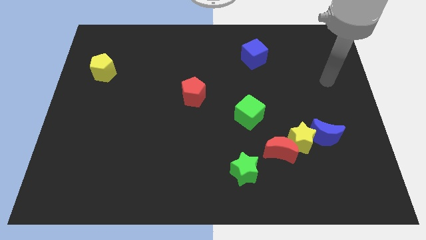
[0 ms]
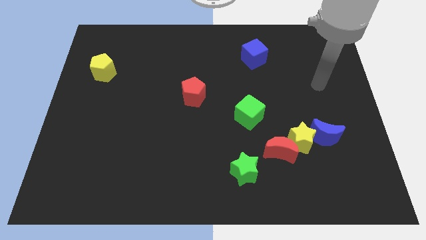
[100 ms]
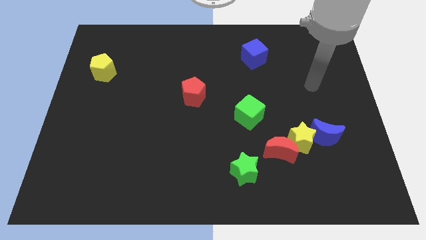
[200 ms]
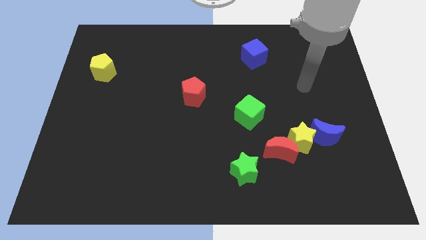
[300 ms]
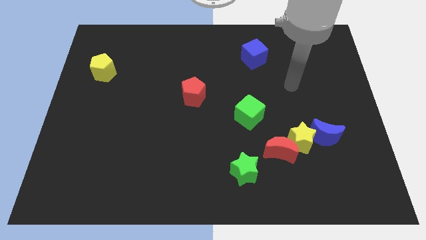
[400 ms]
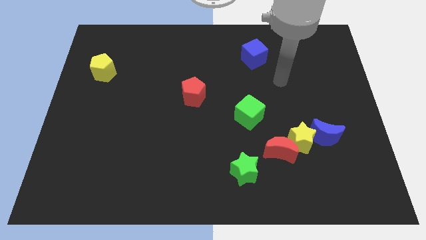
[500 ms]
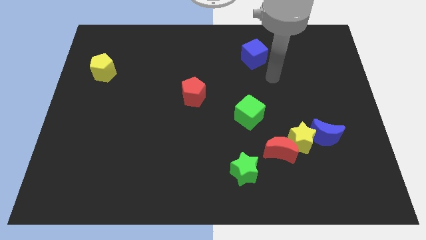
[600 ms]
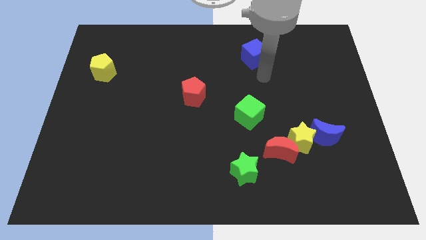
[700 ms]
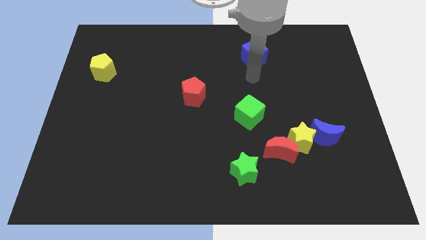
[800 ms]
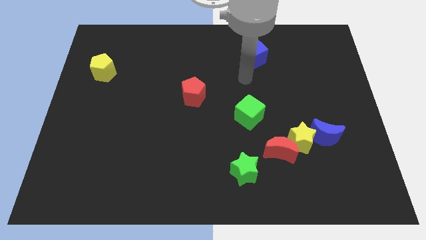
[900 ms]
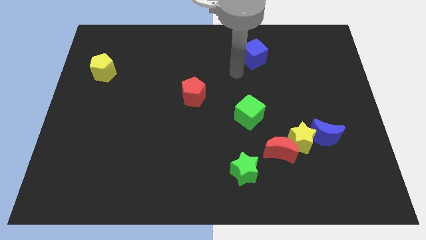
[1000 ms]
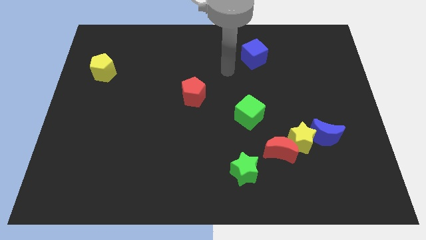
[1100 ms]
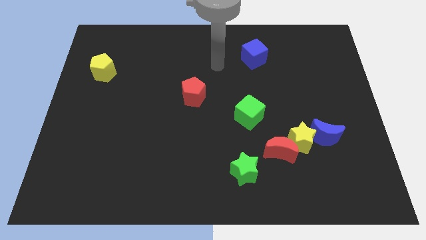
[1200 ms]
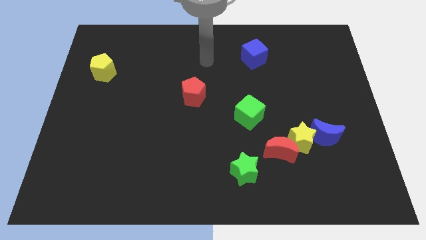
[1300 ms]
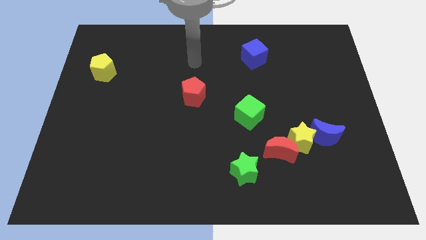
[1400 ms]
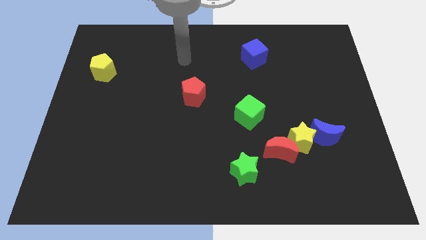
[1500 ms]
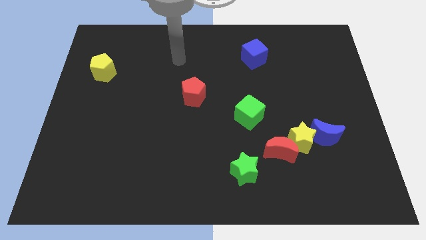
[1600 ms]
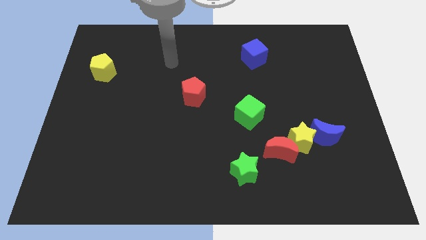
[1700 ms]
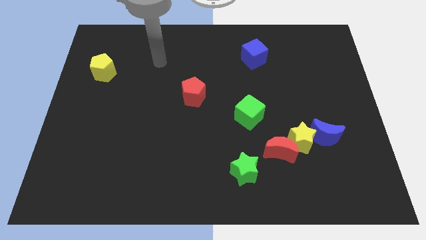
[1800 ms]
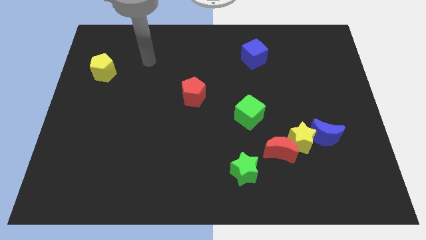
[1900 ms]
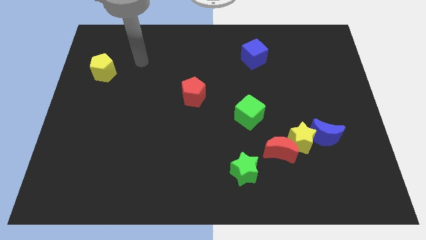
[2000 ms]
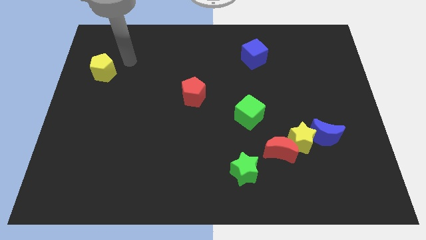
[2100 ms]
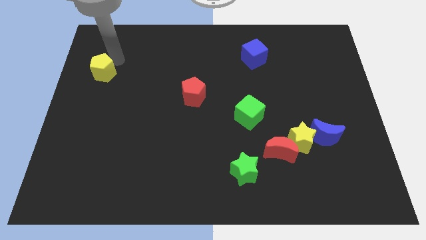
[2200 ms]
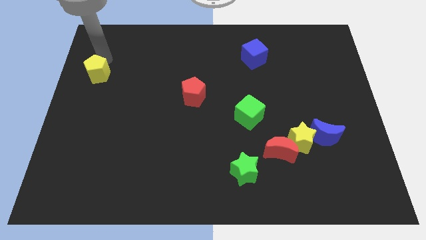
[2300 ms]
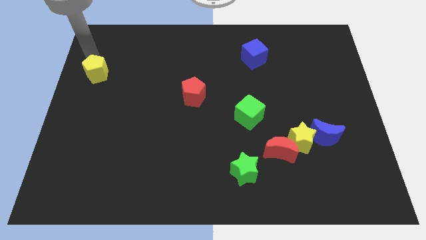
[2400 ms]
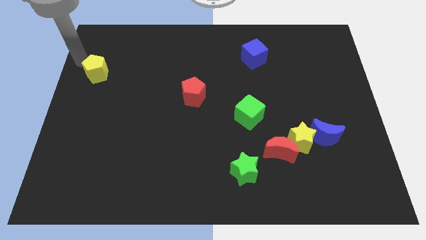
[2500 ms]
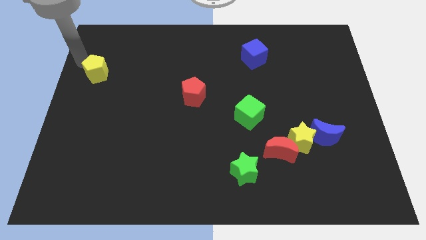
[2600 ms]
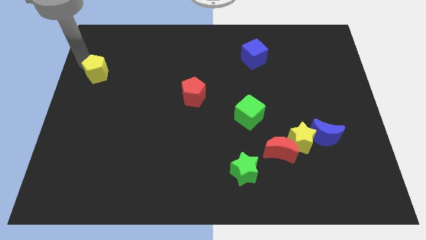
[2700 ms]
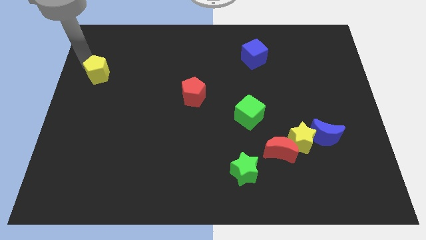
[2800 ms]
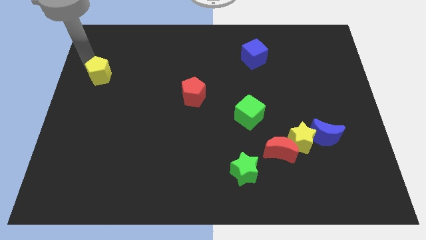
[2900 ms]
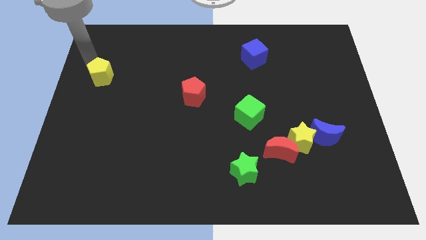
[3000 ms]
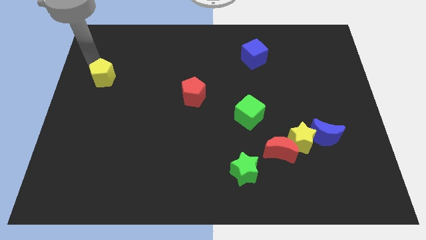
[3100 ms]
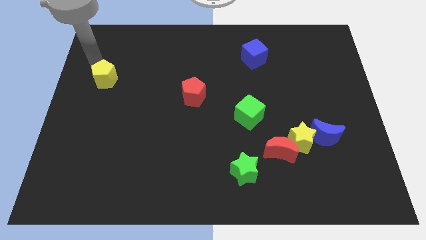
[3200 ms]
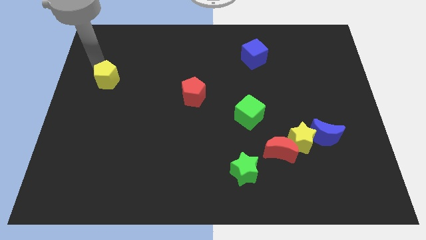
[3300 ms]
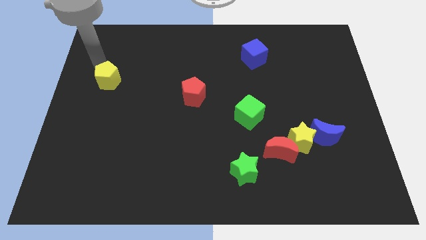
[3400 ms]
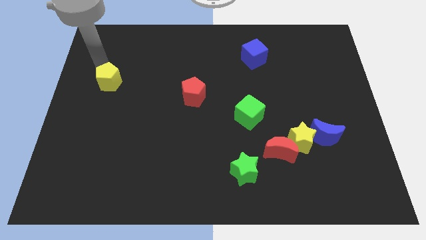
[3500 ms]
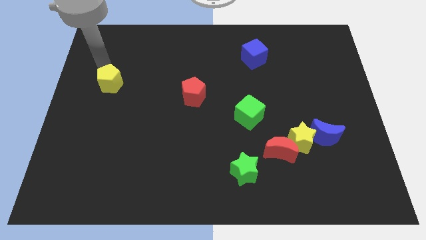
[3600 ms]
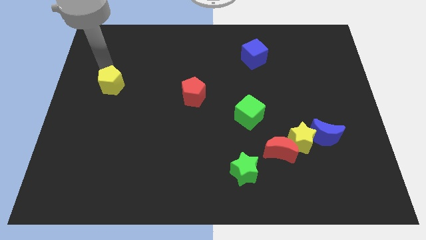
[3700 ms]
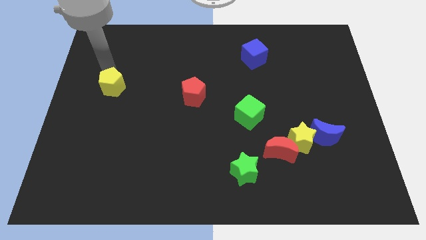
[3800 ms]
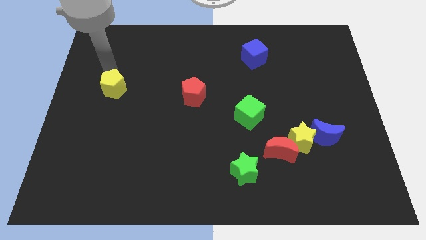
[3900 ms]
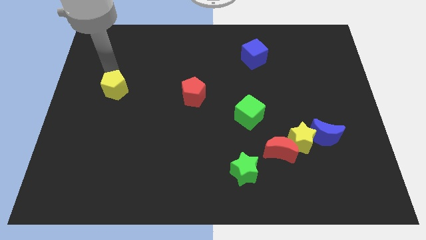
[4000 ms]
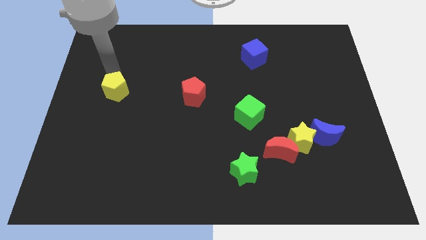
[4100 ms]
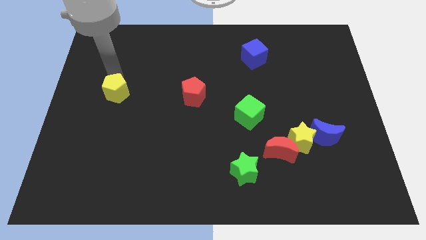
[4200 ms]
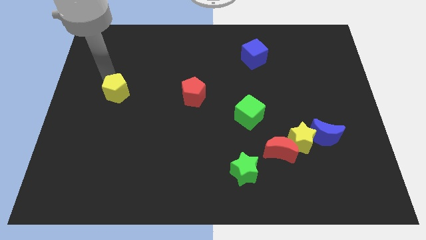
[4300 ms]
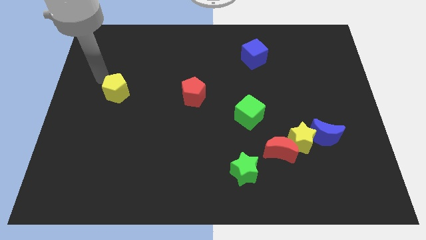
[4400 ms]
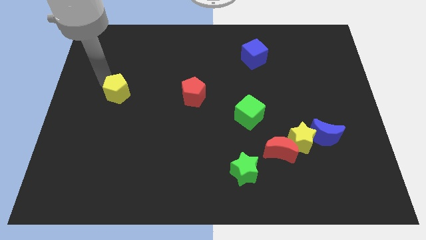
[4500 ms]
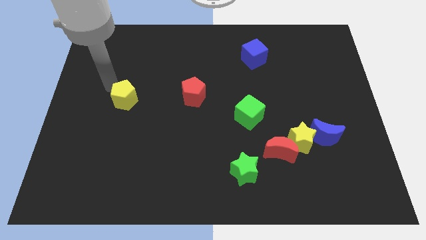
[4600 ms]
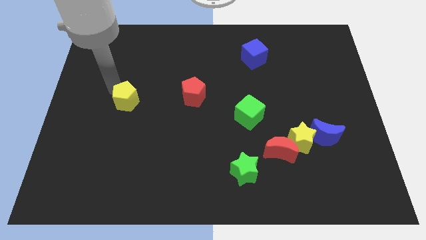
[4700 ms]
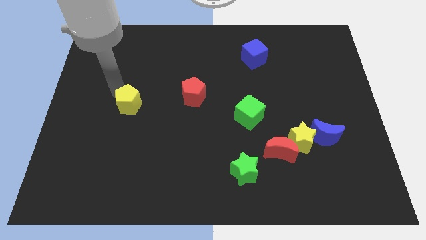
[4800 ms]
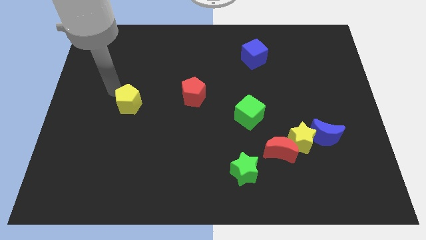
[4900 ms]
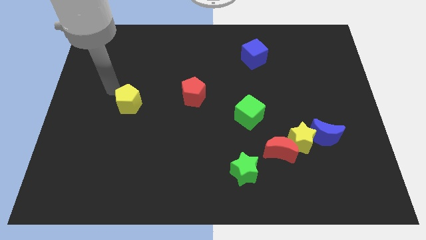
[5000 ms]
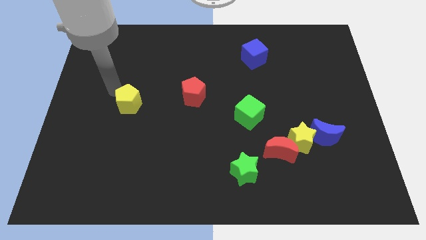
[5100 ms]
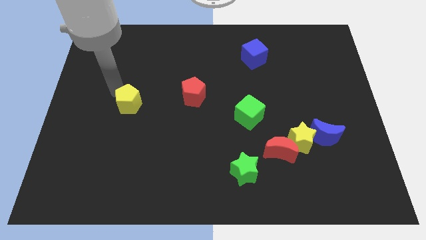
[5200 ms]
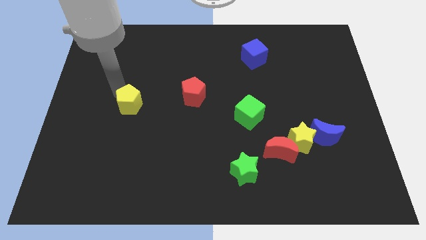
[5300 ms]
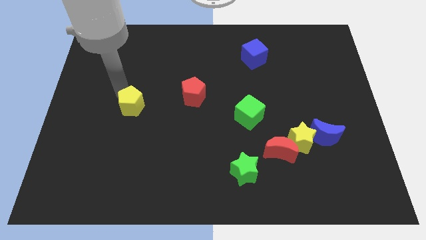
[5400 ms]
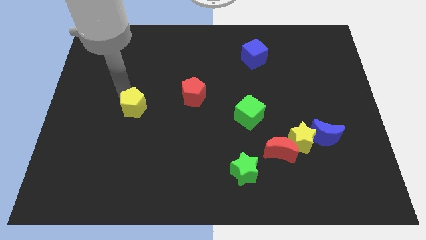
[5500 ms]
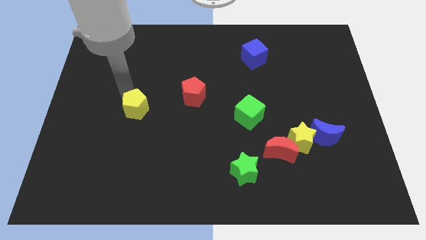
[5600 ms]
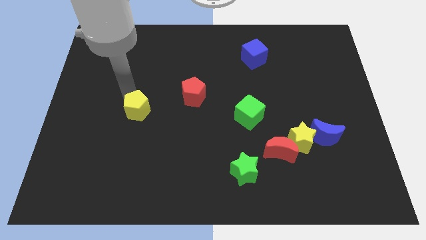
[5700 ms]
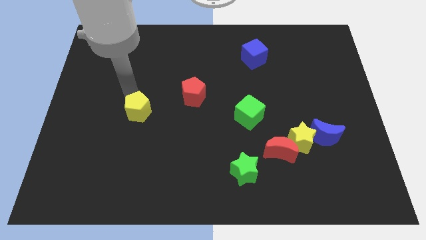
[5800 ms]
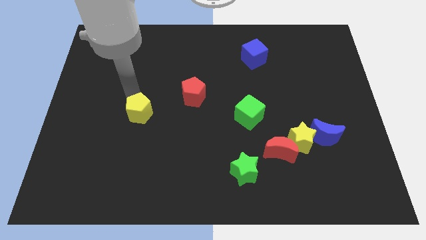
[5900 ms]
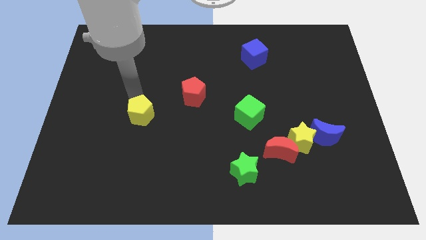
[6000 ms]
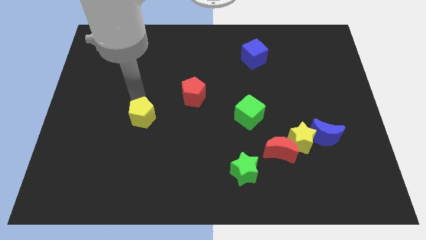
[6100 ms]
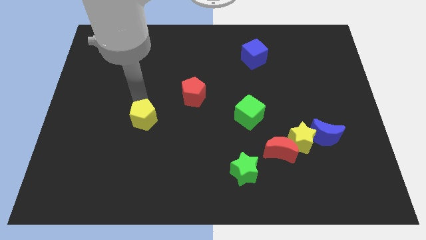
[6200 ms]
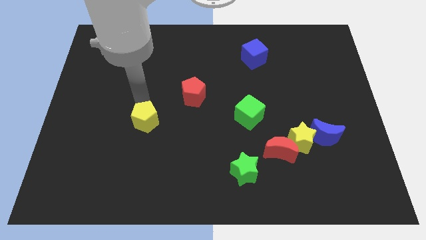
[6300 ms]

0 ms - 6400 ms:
slide the yellow pentagon downwards and then right

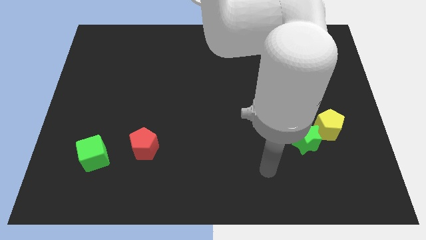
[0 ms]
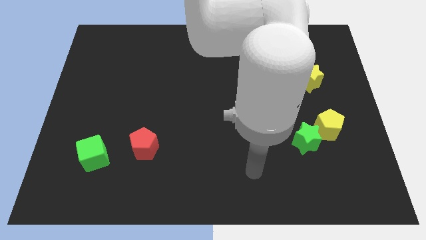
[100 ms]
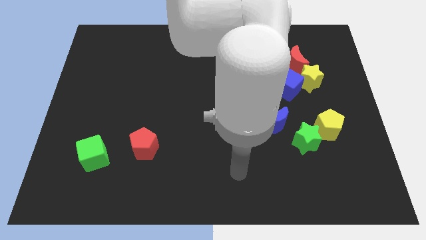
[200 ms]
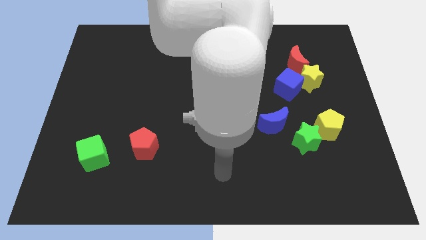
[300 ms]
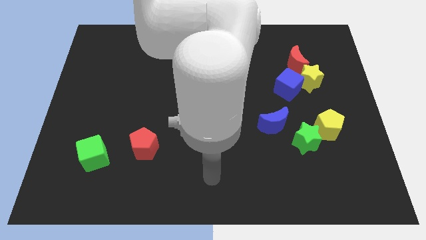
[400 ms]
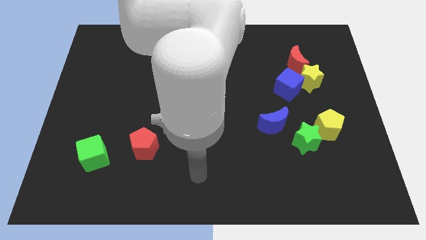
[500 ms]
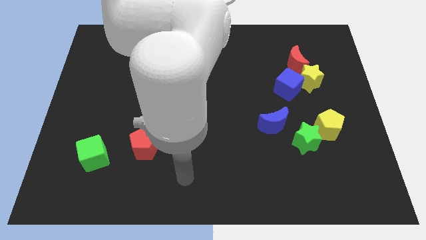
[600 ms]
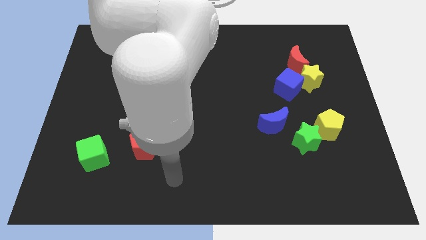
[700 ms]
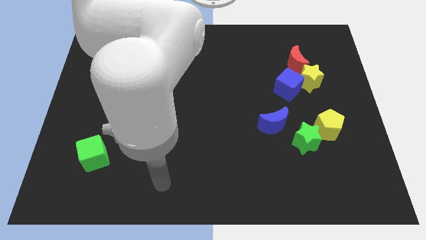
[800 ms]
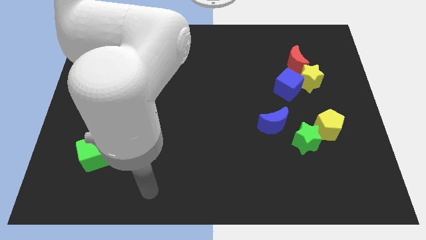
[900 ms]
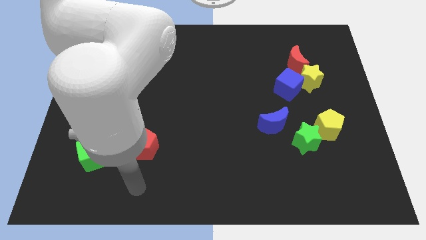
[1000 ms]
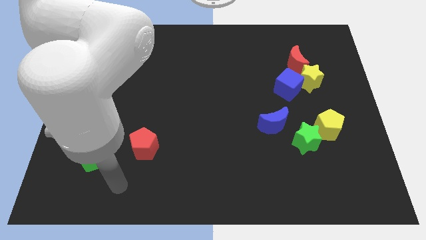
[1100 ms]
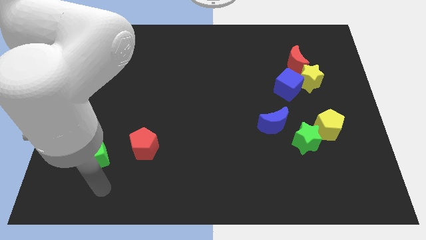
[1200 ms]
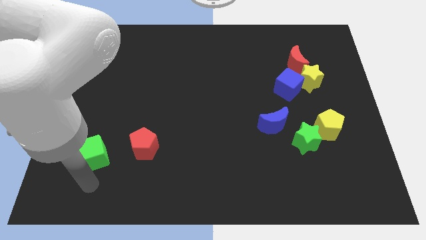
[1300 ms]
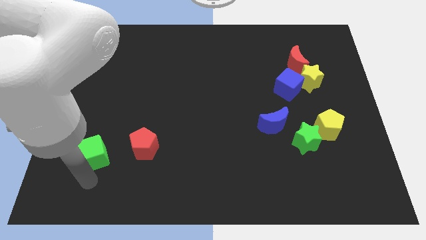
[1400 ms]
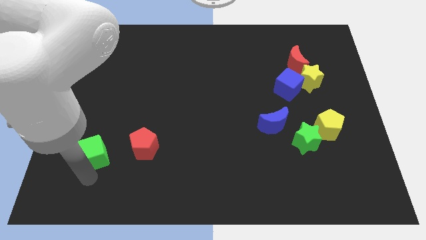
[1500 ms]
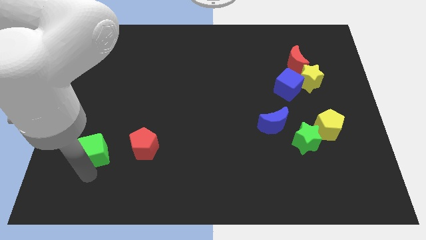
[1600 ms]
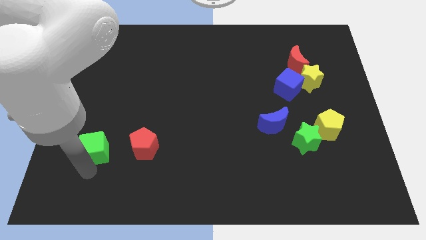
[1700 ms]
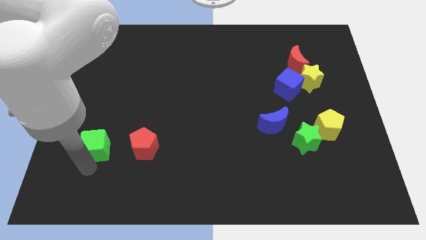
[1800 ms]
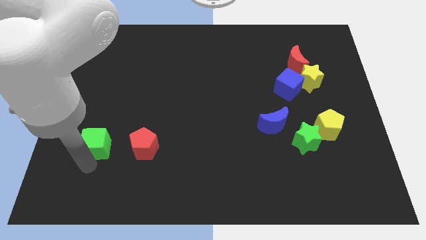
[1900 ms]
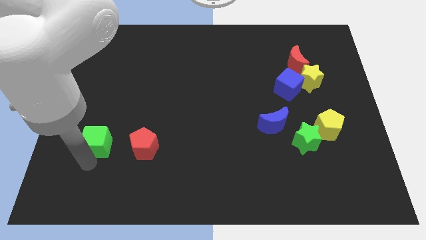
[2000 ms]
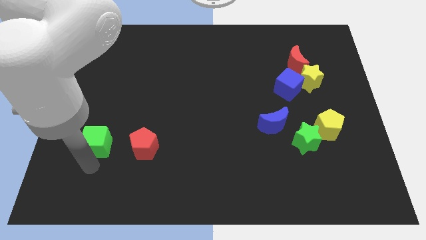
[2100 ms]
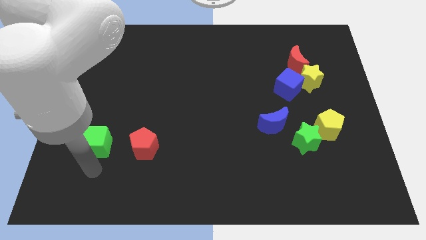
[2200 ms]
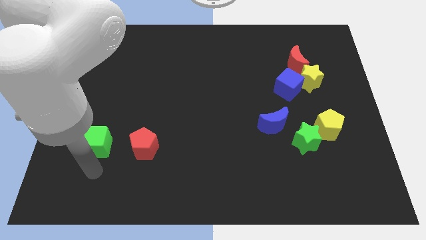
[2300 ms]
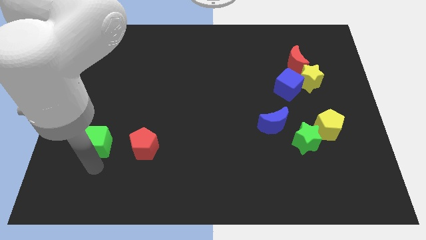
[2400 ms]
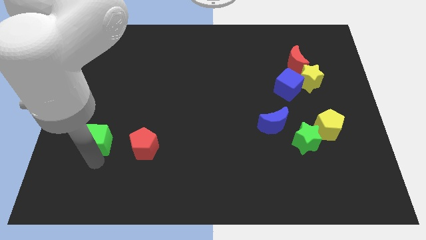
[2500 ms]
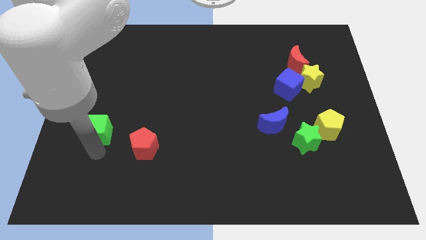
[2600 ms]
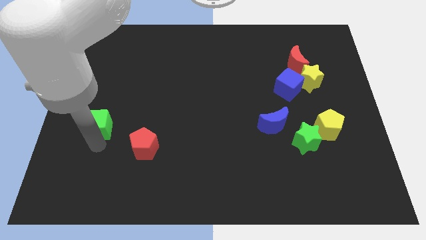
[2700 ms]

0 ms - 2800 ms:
slightly move the green cube up
